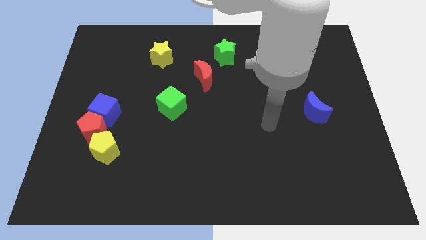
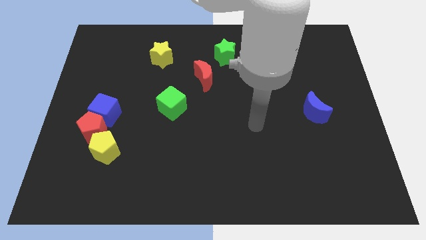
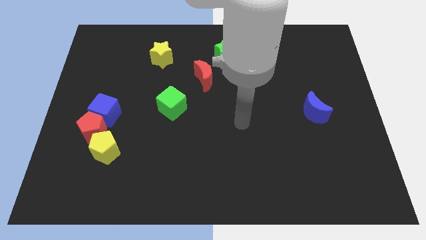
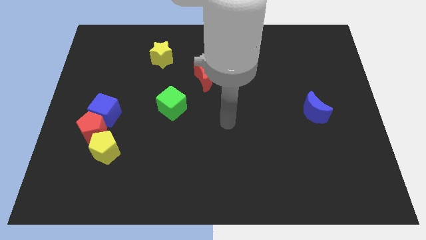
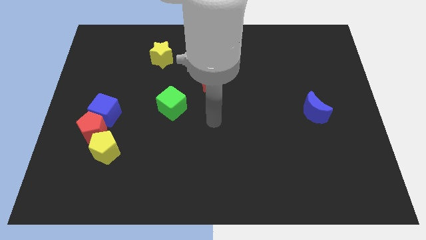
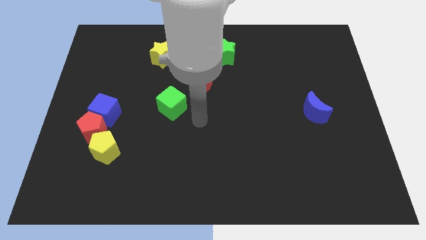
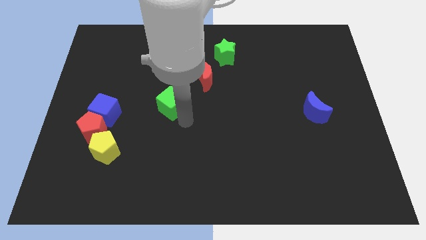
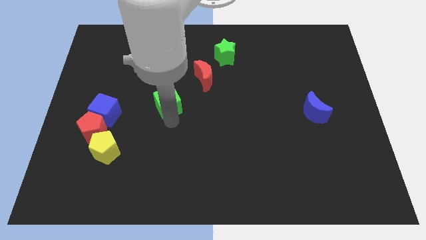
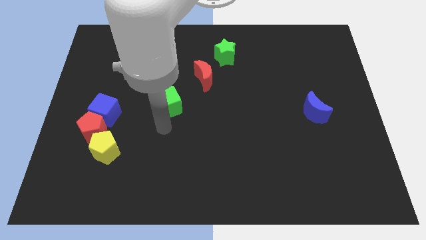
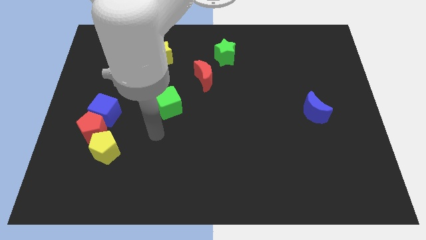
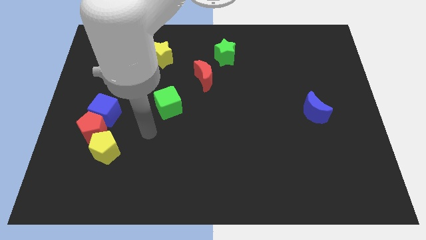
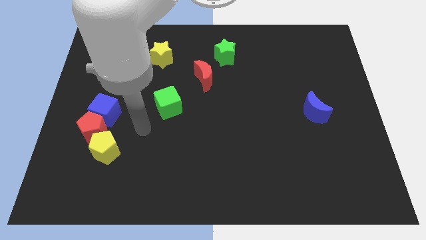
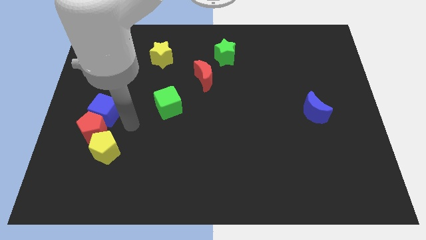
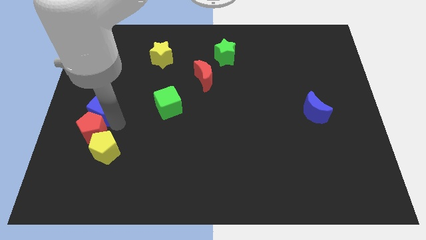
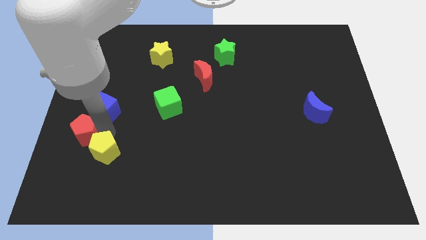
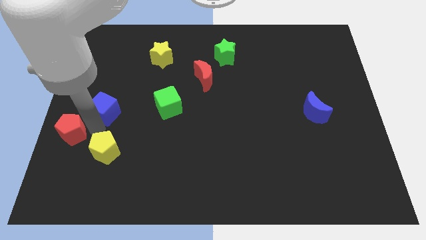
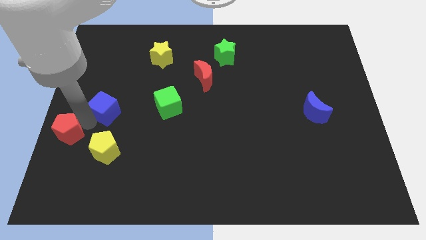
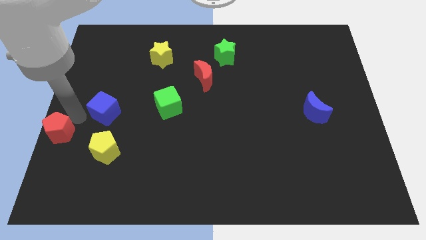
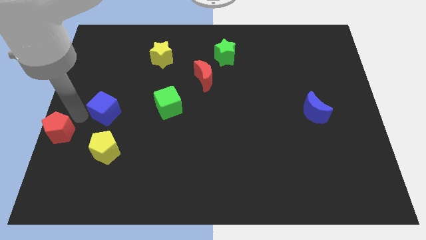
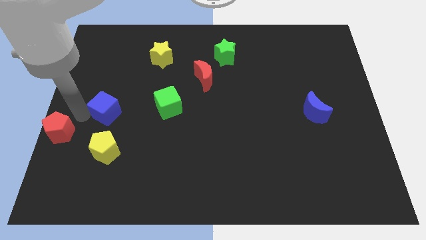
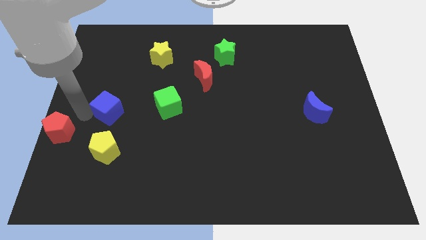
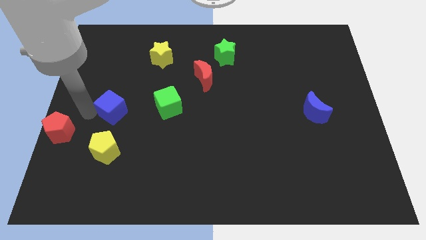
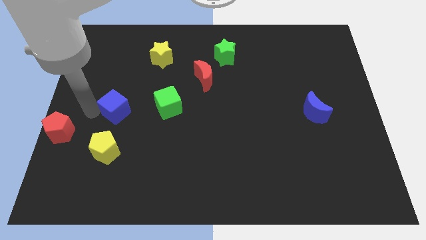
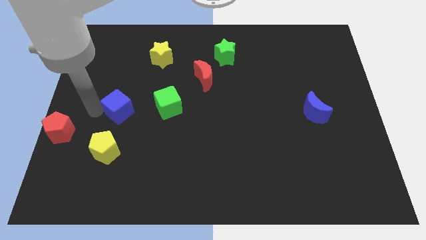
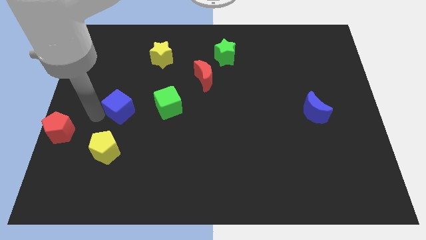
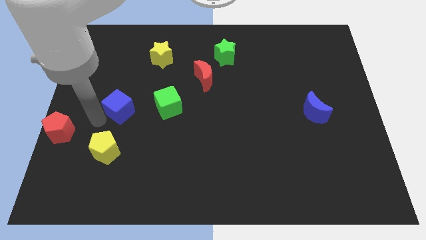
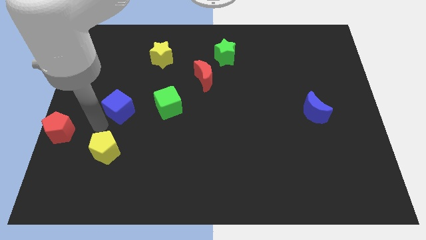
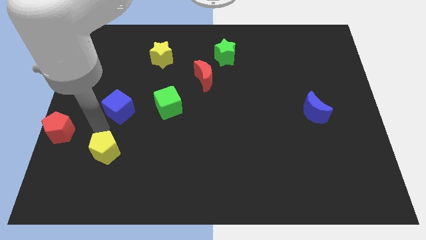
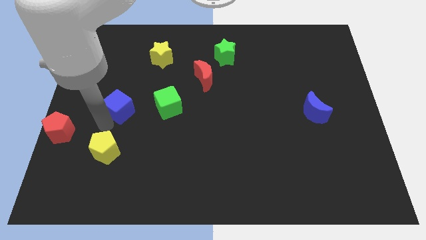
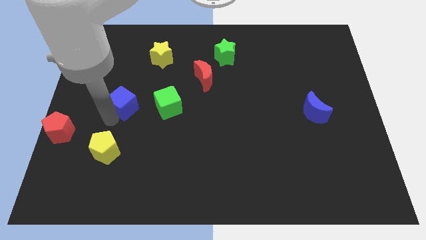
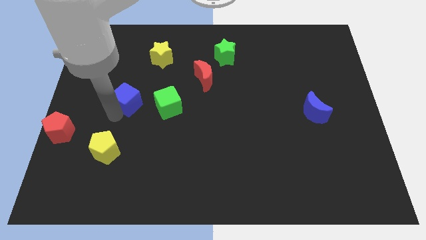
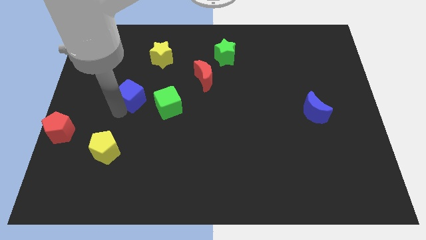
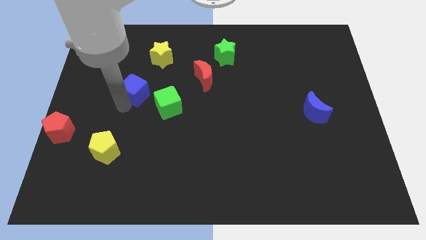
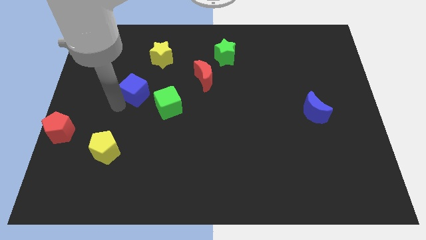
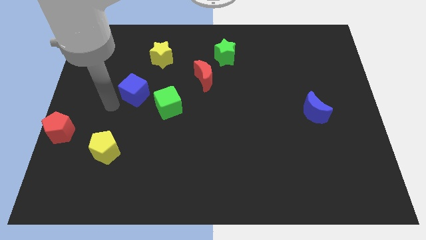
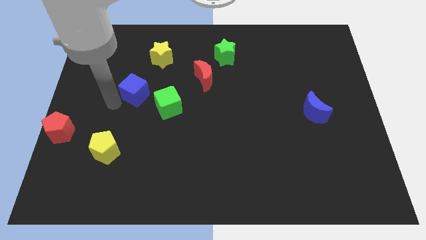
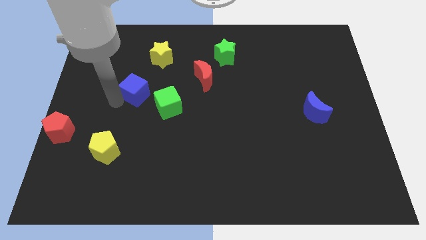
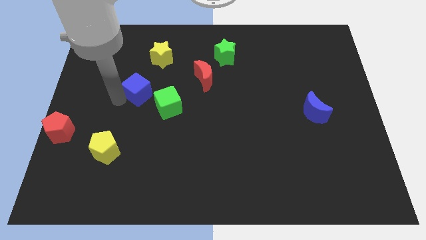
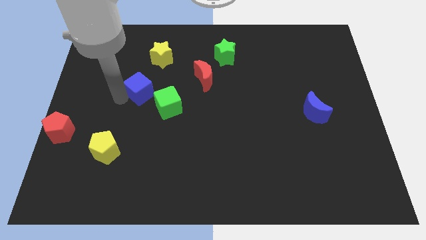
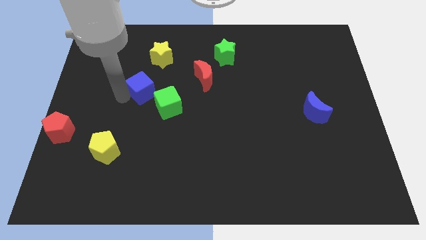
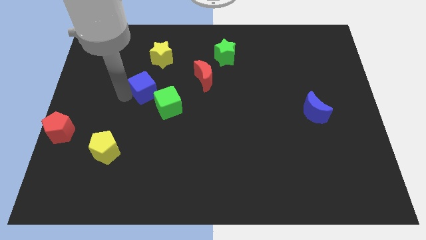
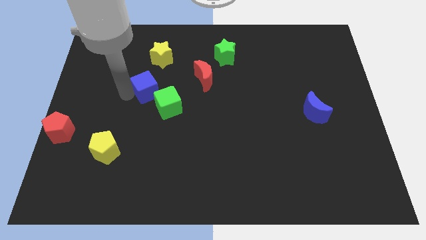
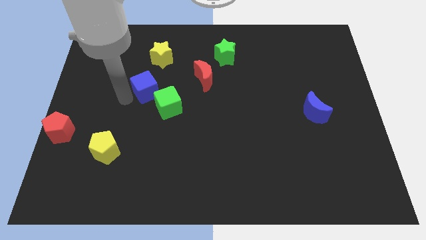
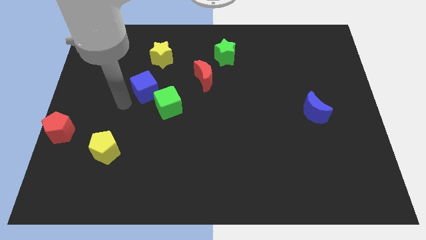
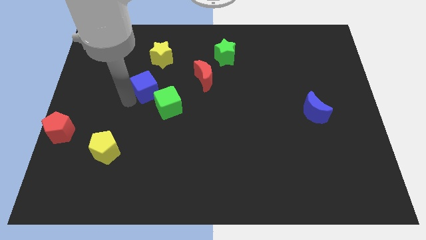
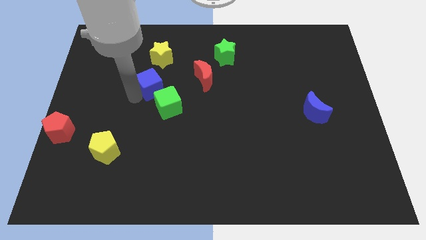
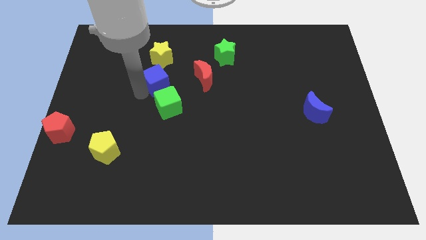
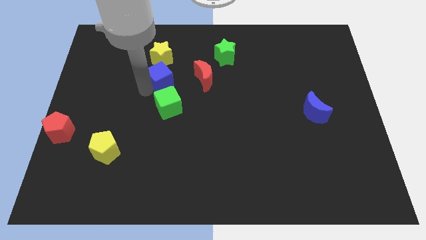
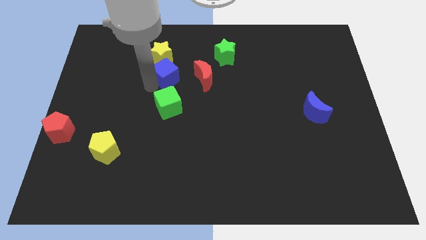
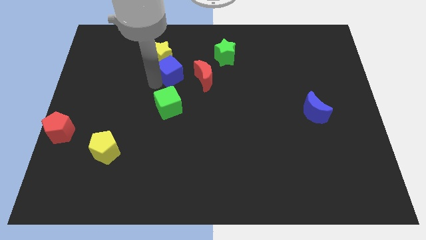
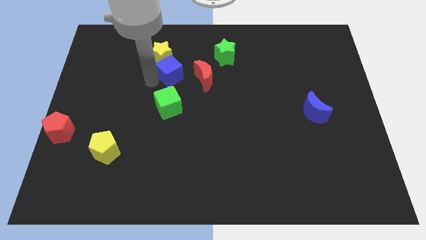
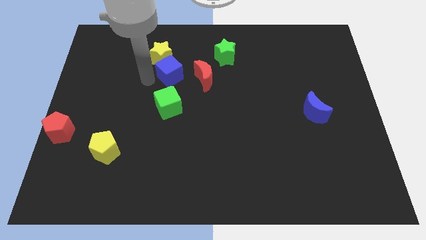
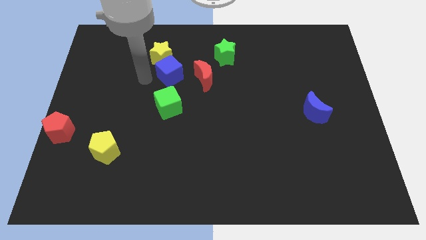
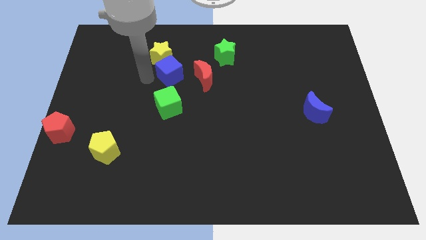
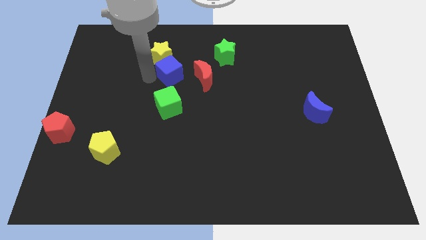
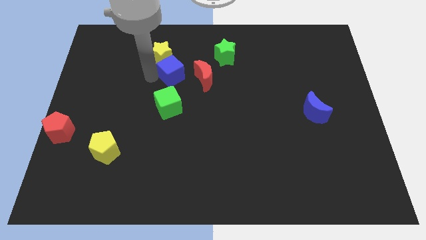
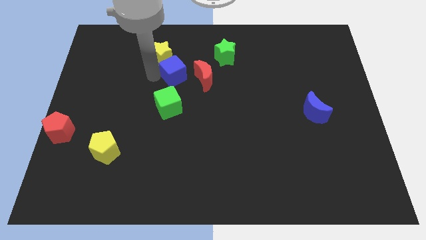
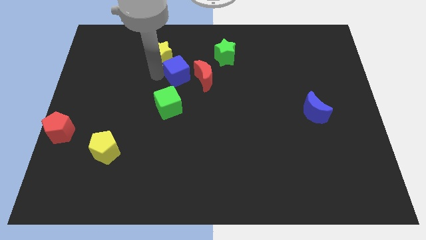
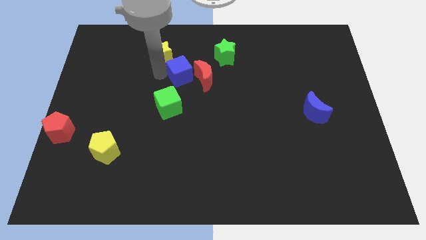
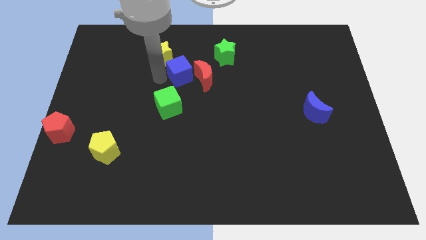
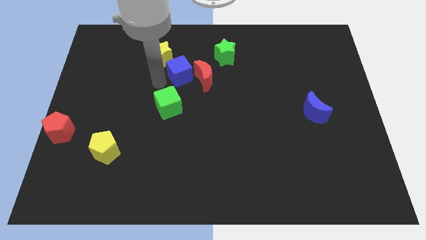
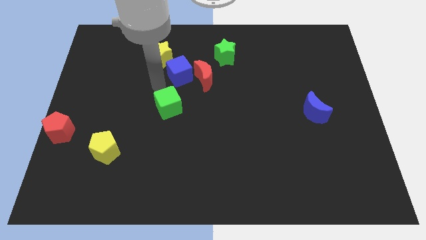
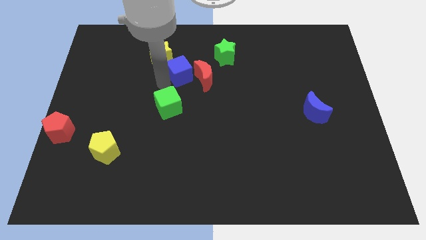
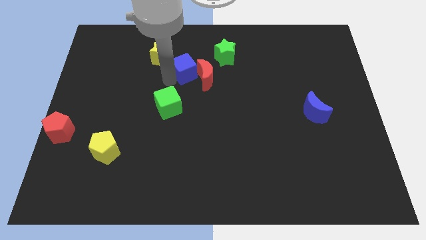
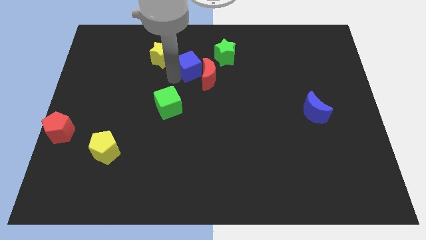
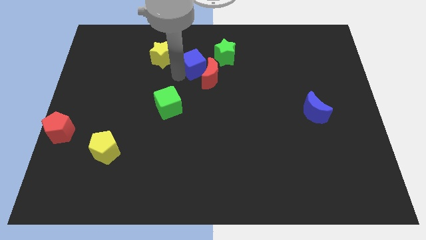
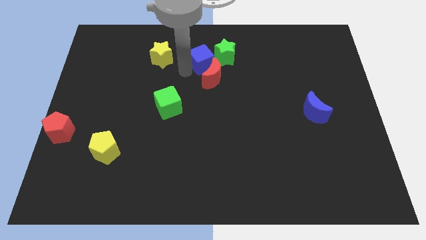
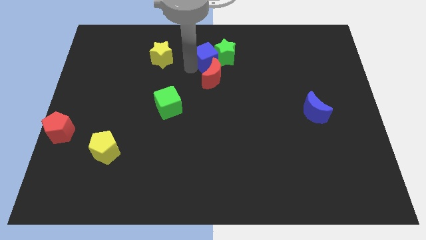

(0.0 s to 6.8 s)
move the blue cube close to the green star

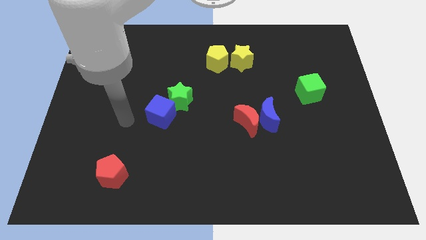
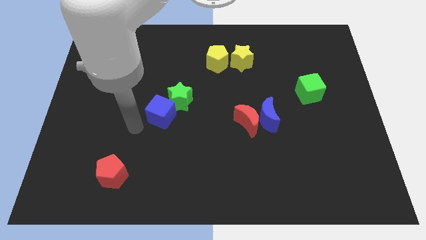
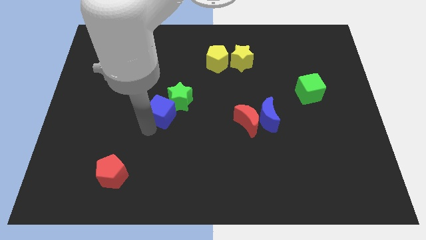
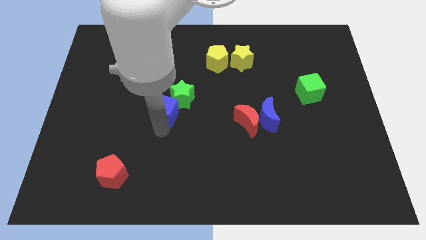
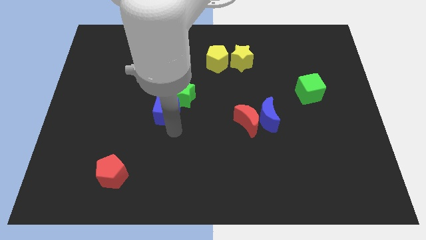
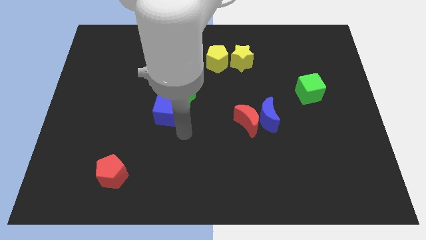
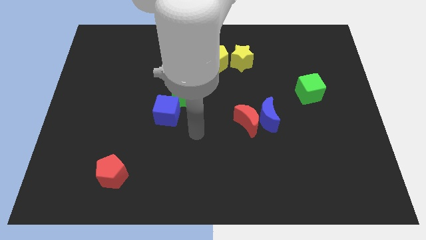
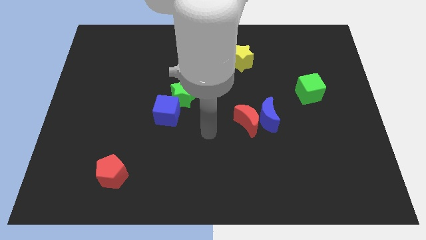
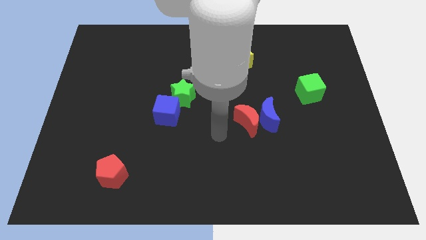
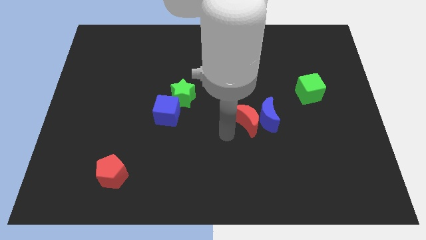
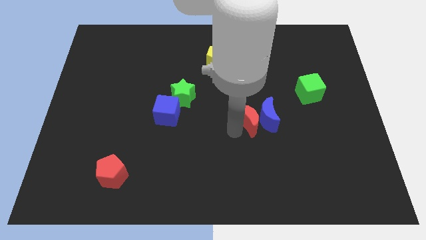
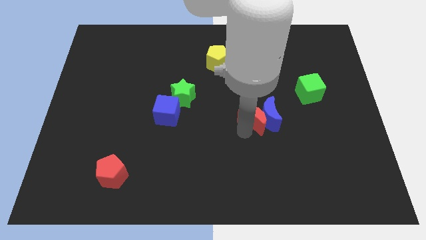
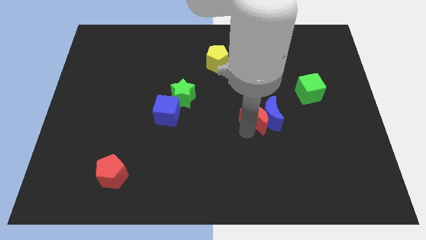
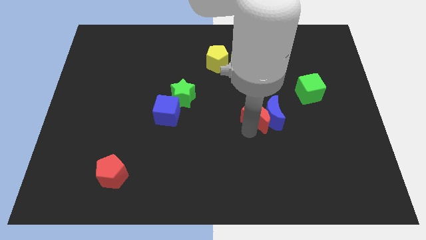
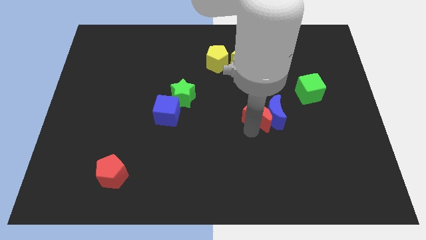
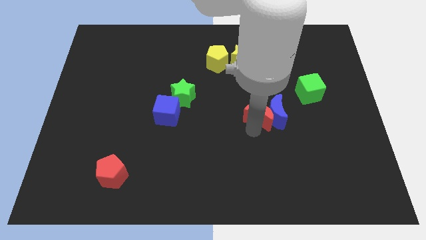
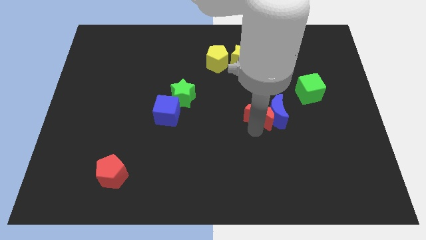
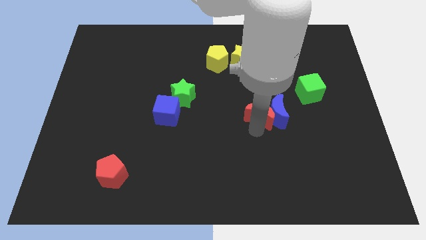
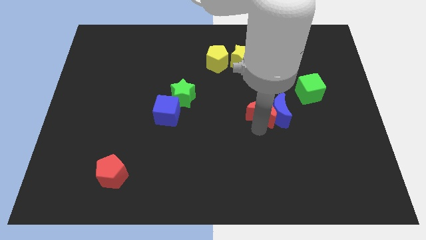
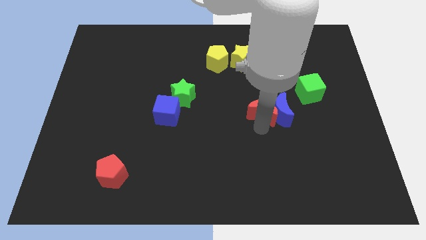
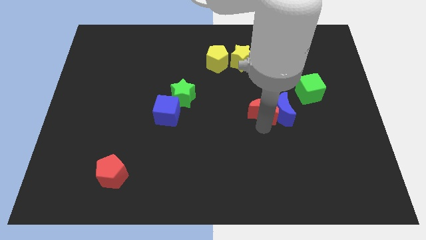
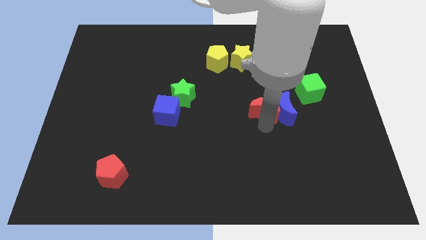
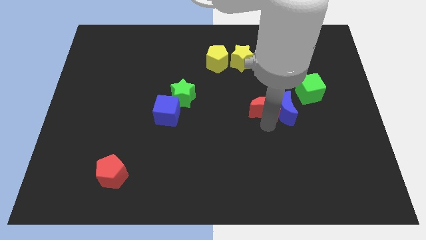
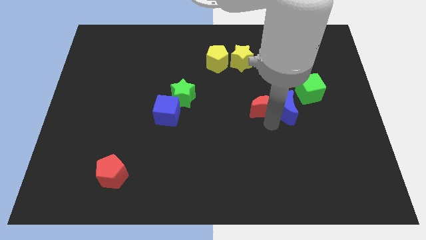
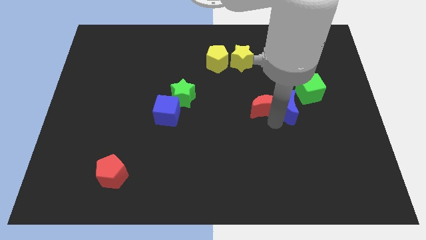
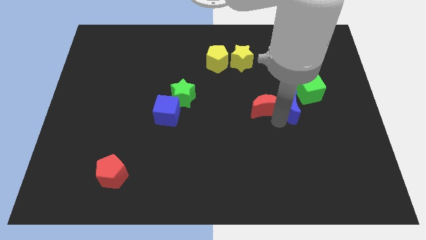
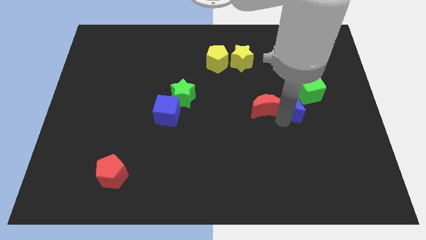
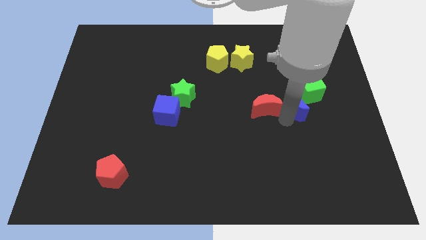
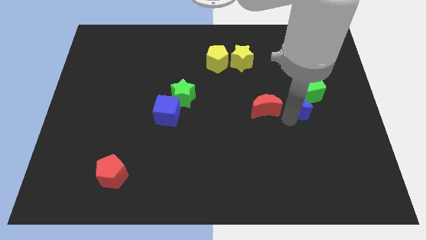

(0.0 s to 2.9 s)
push the blue moon close to the green cube
